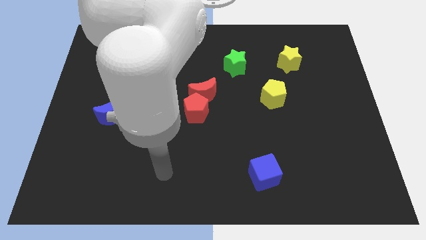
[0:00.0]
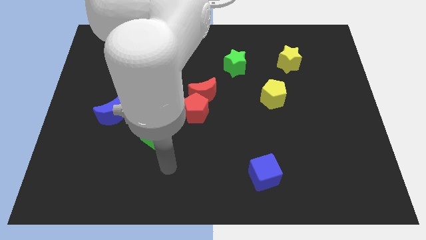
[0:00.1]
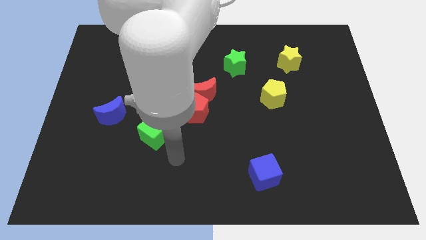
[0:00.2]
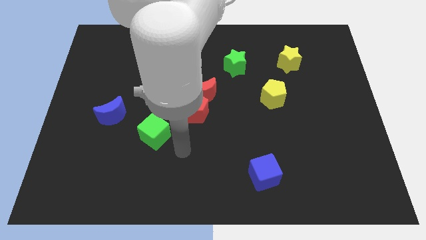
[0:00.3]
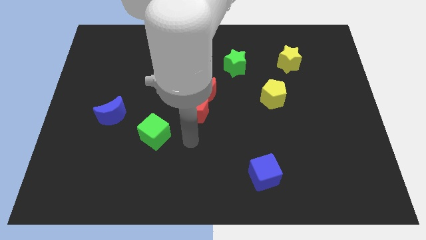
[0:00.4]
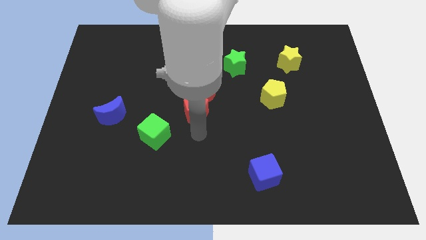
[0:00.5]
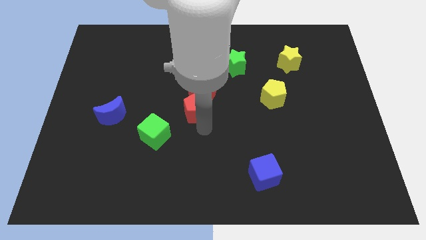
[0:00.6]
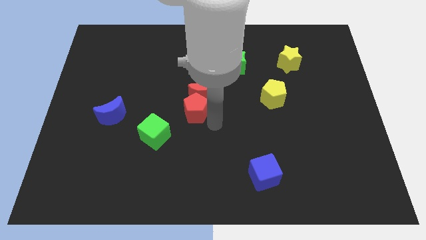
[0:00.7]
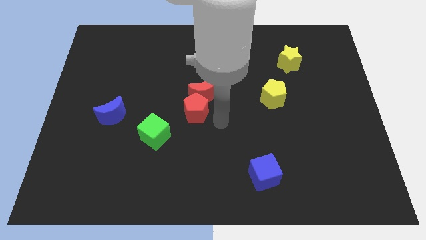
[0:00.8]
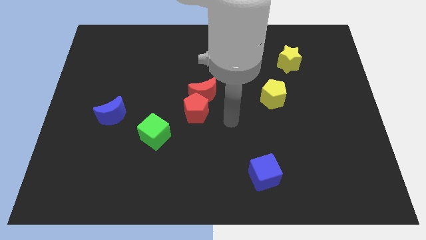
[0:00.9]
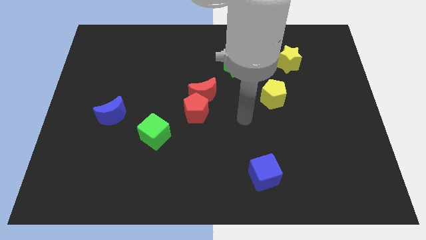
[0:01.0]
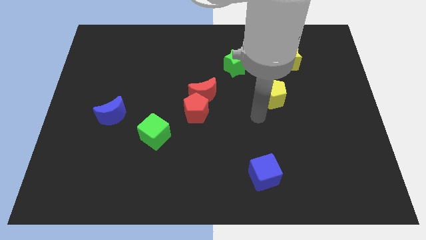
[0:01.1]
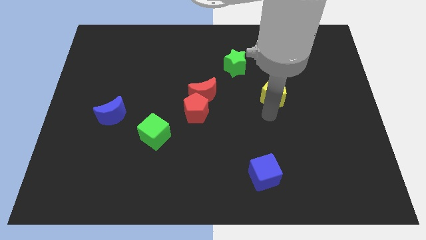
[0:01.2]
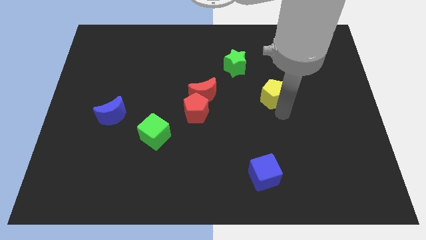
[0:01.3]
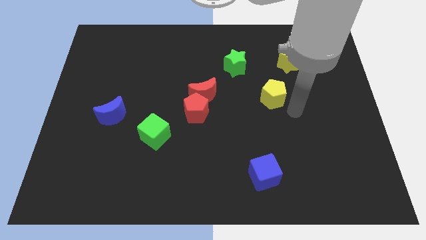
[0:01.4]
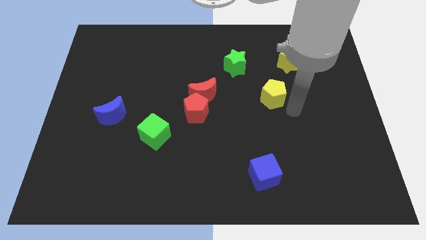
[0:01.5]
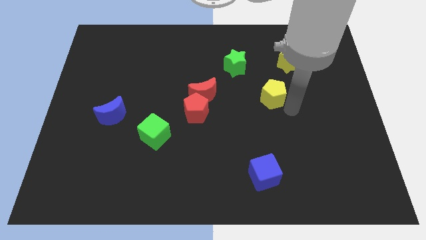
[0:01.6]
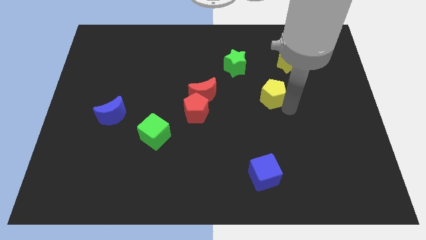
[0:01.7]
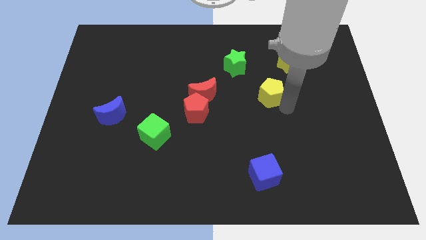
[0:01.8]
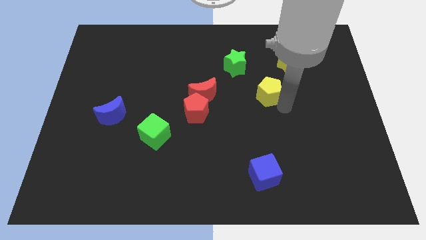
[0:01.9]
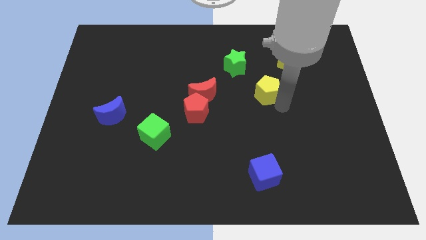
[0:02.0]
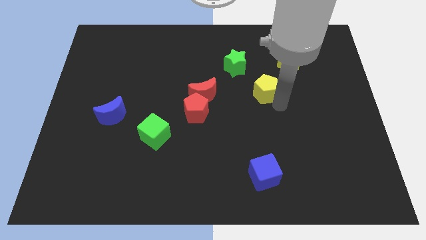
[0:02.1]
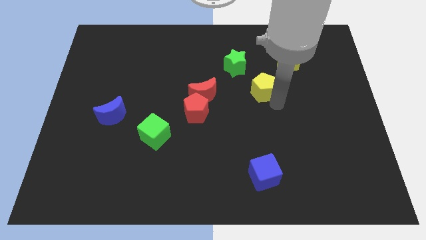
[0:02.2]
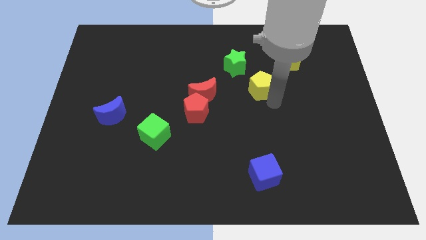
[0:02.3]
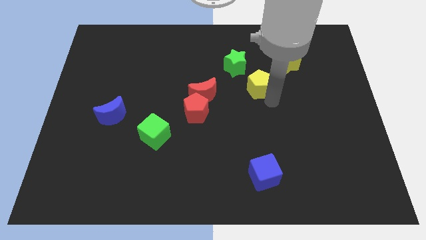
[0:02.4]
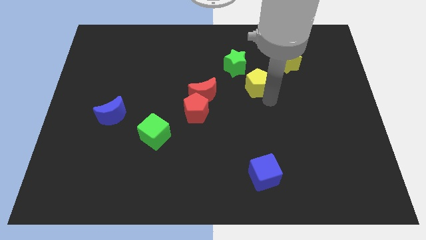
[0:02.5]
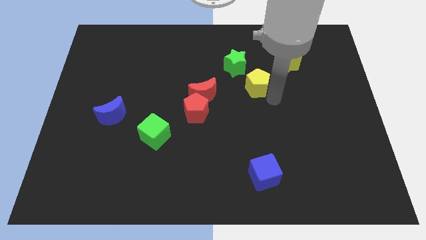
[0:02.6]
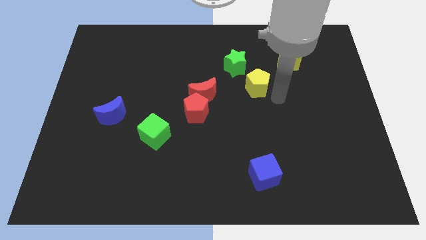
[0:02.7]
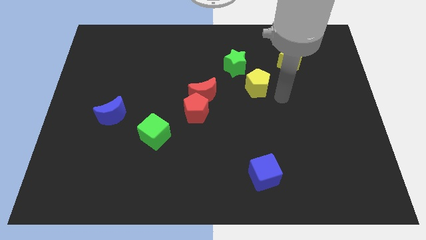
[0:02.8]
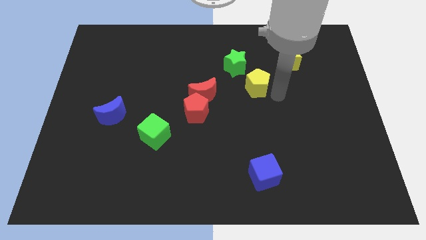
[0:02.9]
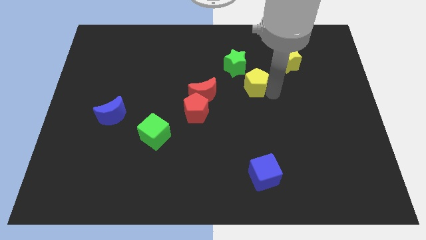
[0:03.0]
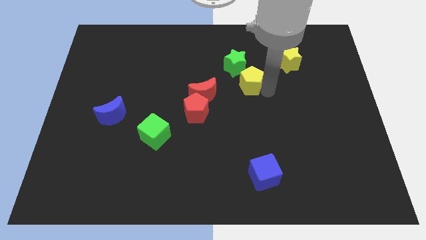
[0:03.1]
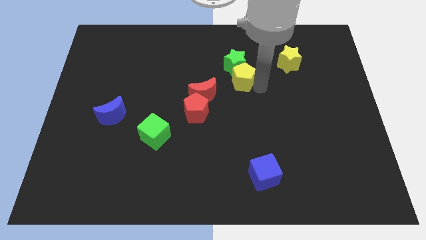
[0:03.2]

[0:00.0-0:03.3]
move the yellow pentagon up and then to the left a bit

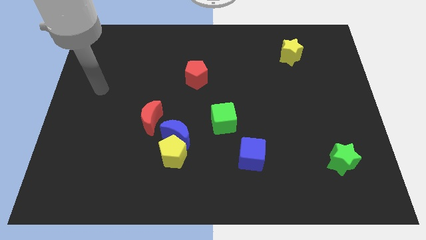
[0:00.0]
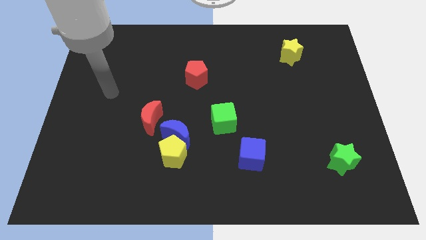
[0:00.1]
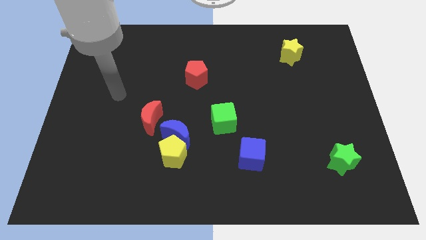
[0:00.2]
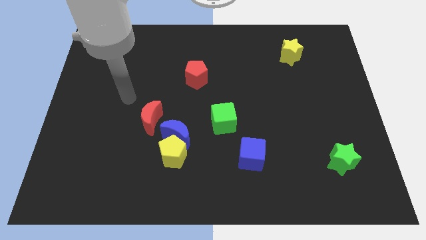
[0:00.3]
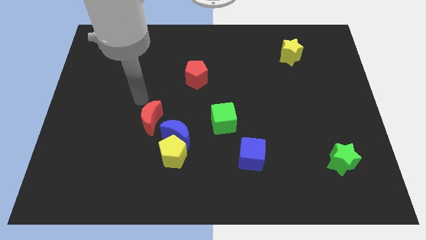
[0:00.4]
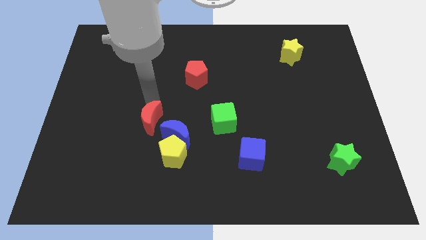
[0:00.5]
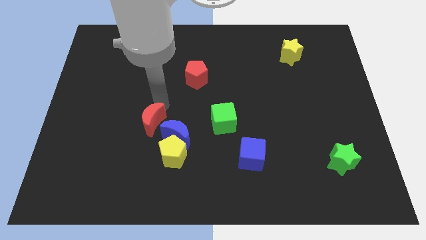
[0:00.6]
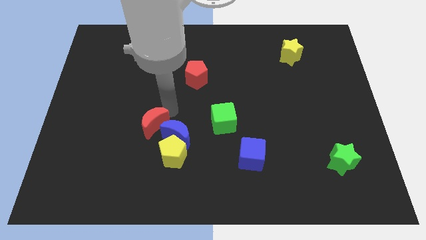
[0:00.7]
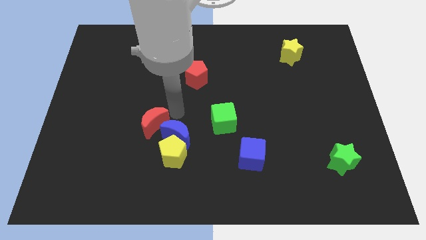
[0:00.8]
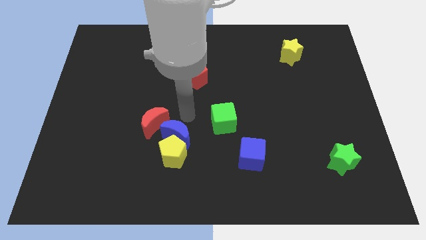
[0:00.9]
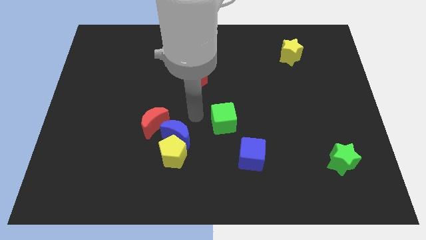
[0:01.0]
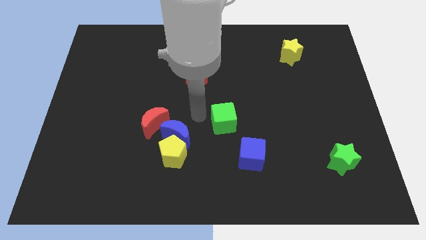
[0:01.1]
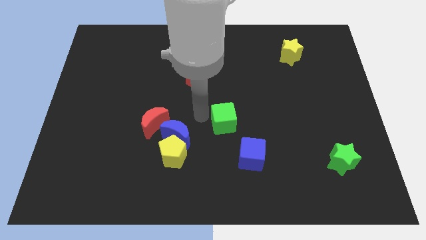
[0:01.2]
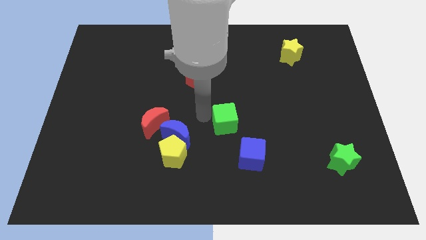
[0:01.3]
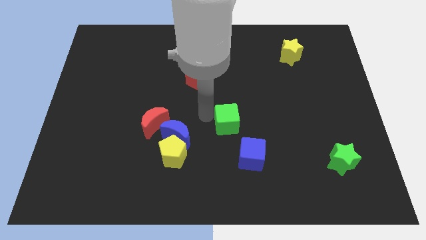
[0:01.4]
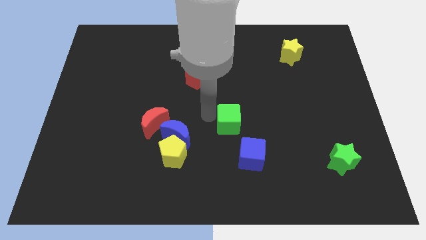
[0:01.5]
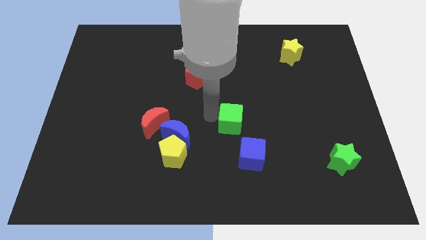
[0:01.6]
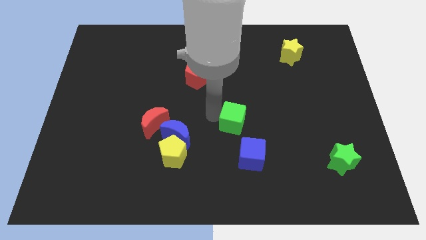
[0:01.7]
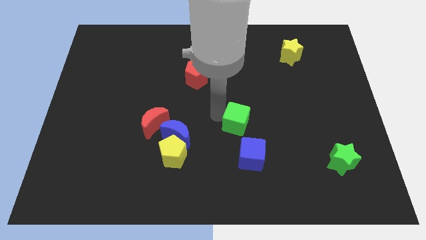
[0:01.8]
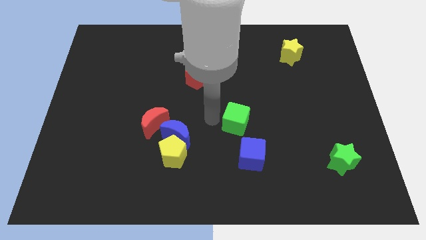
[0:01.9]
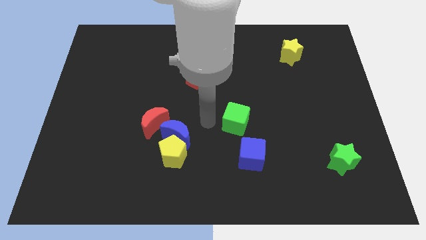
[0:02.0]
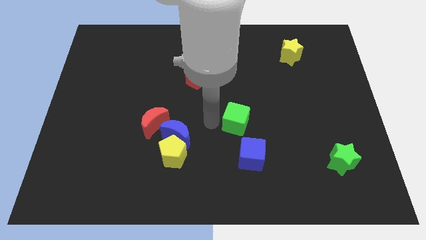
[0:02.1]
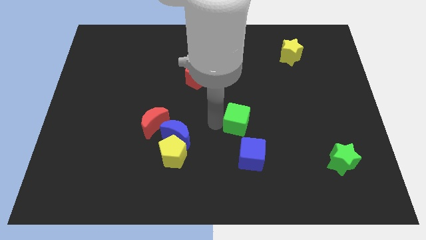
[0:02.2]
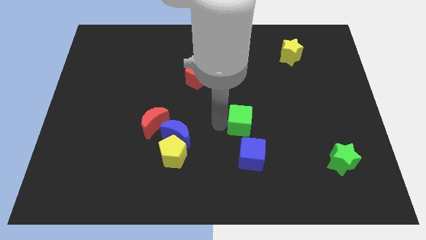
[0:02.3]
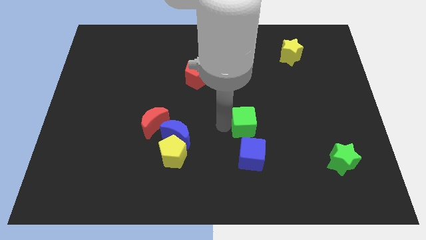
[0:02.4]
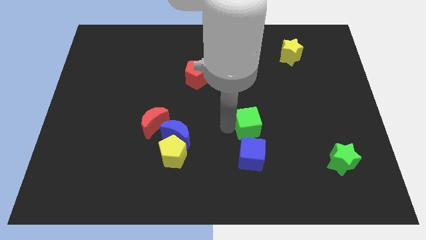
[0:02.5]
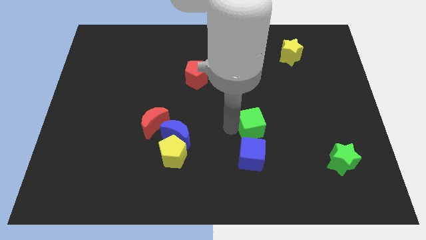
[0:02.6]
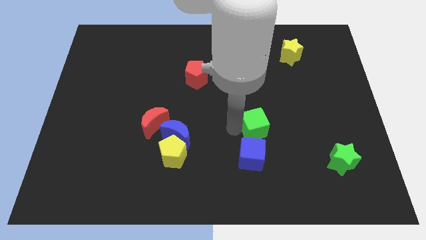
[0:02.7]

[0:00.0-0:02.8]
move the green cube to the right a little bit

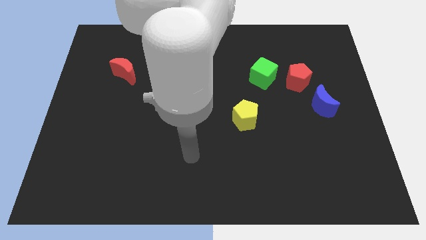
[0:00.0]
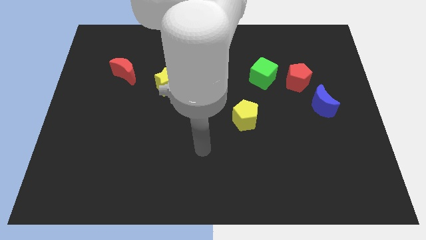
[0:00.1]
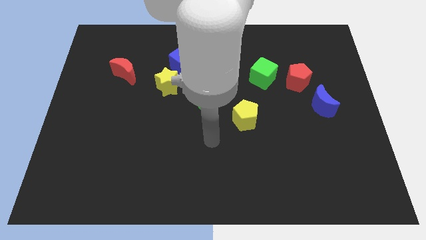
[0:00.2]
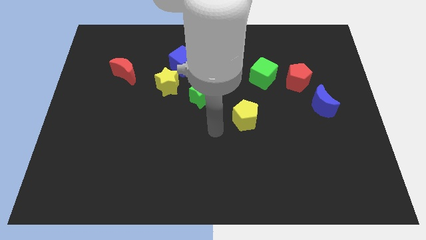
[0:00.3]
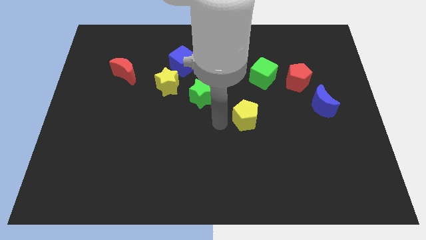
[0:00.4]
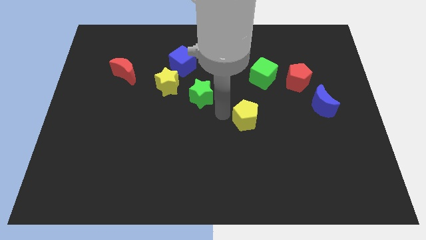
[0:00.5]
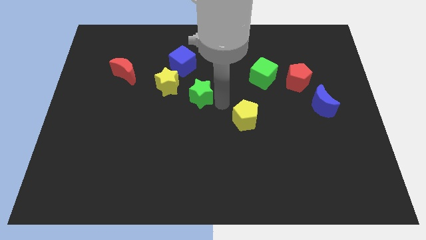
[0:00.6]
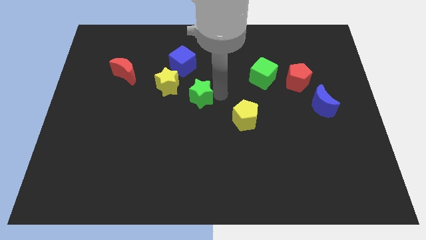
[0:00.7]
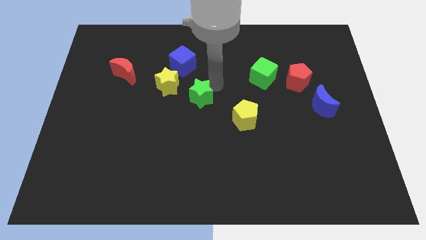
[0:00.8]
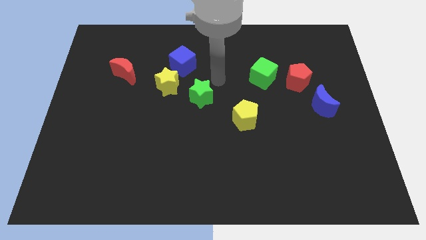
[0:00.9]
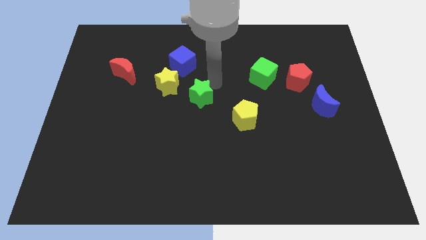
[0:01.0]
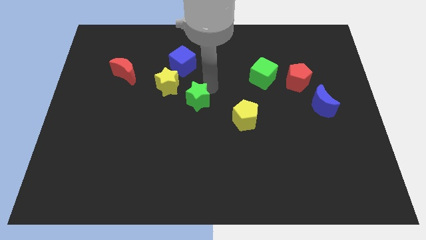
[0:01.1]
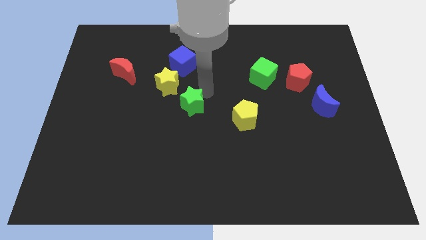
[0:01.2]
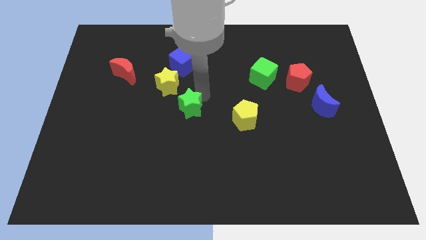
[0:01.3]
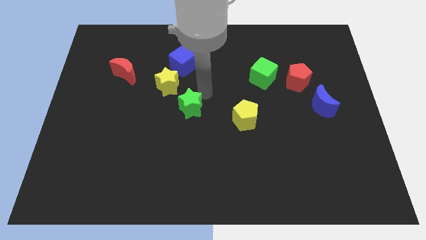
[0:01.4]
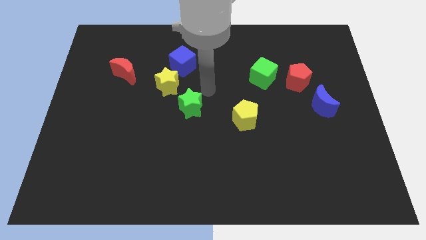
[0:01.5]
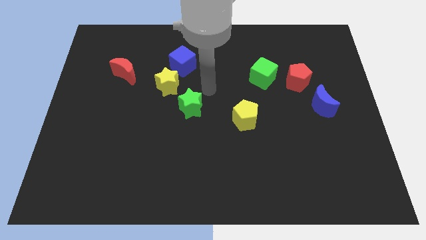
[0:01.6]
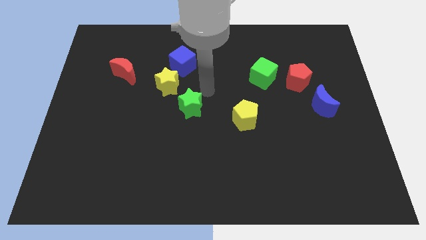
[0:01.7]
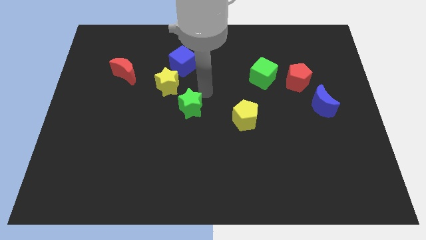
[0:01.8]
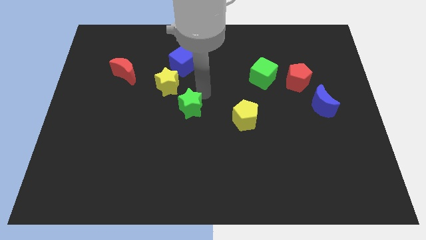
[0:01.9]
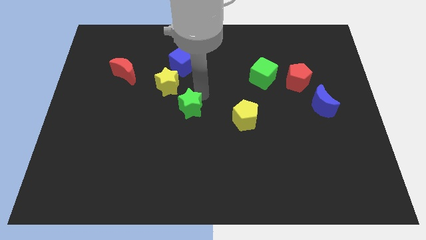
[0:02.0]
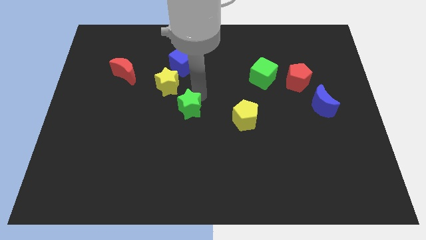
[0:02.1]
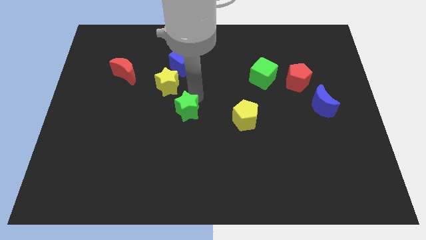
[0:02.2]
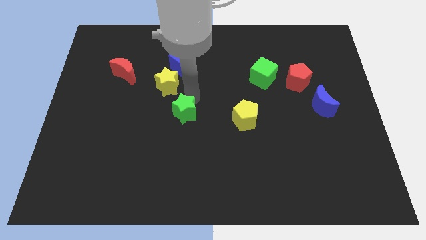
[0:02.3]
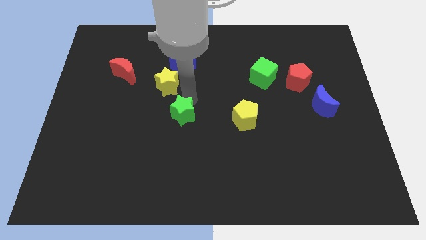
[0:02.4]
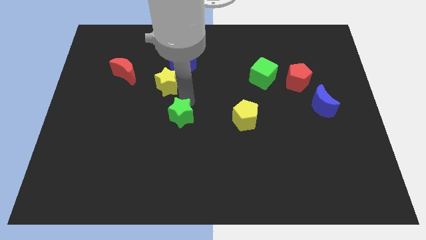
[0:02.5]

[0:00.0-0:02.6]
slide the green star down and left a bit
